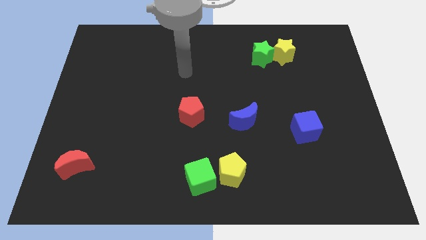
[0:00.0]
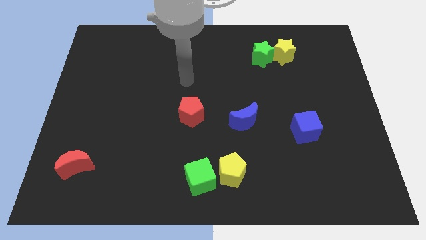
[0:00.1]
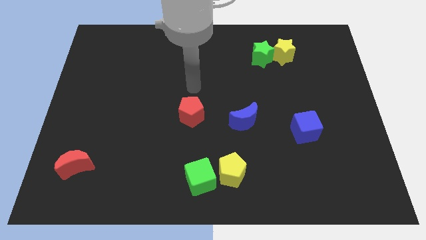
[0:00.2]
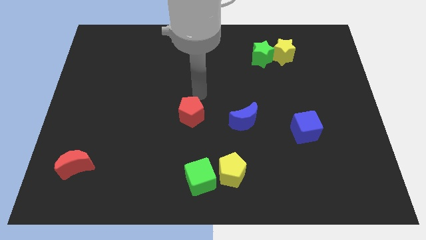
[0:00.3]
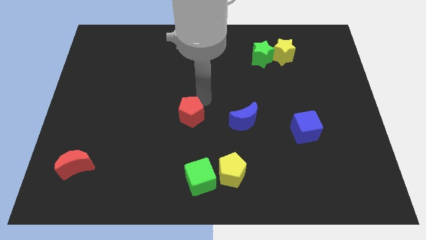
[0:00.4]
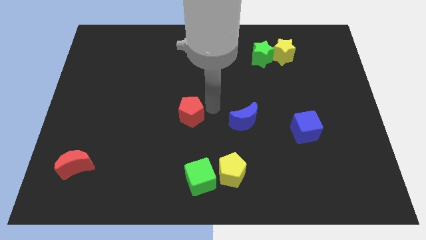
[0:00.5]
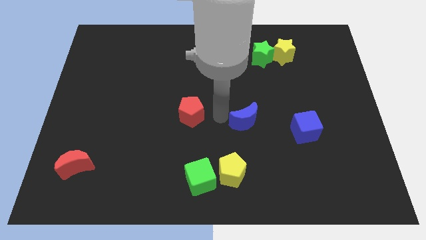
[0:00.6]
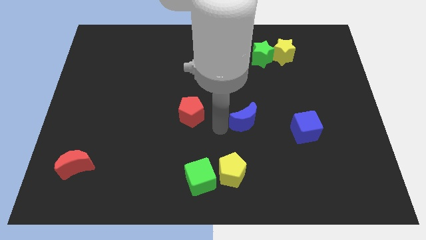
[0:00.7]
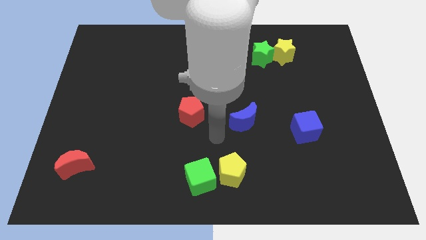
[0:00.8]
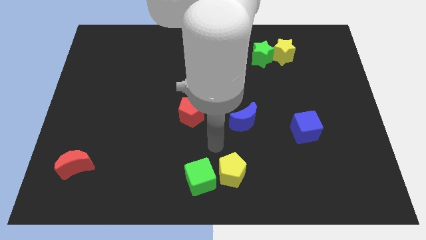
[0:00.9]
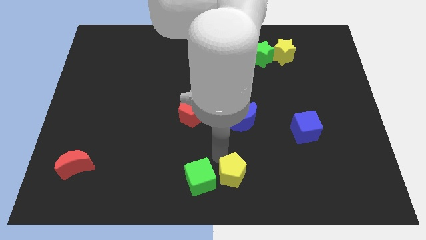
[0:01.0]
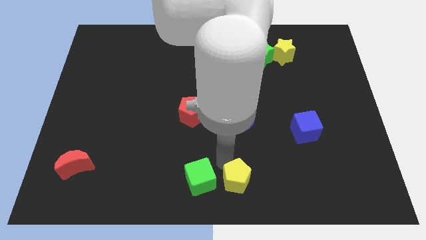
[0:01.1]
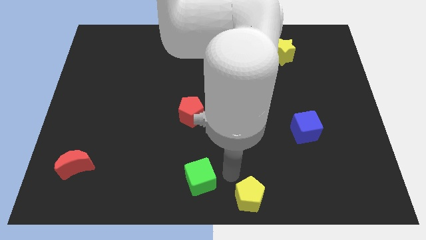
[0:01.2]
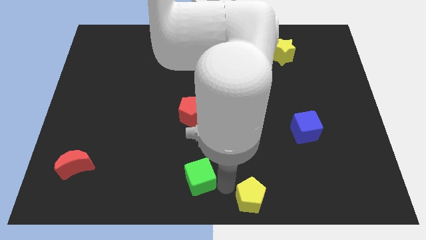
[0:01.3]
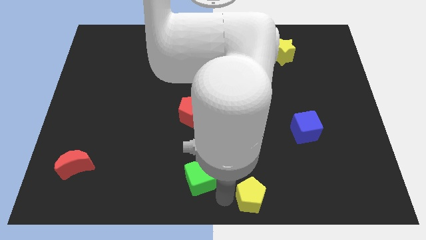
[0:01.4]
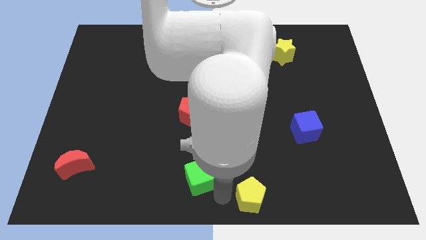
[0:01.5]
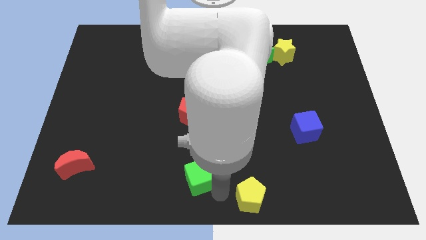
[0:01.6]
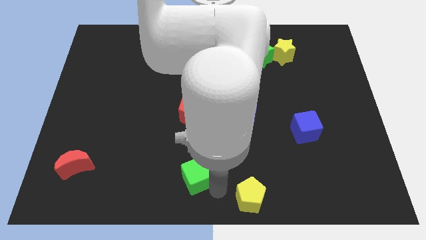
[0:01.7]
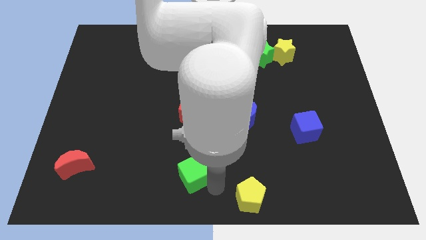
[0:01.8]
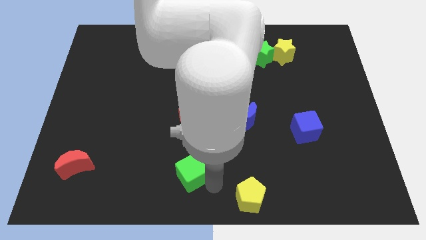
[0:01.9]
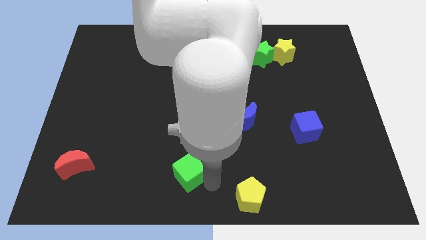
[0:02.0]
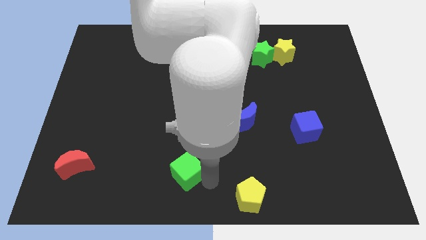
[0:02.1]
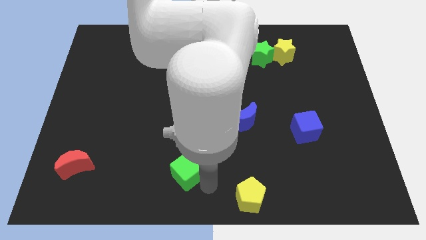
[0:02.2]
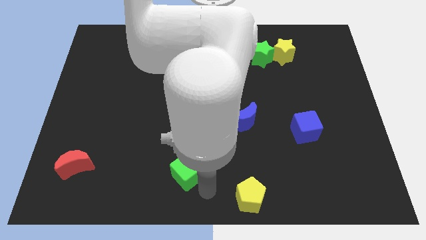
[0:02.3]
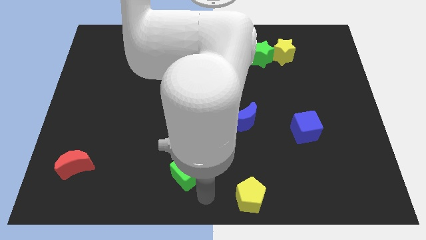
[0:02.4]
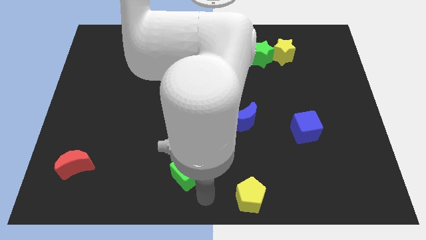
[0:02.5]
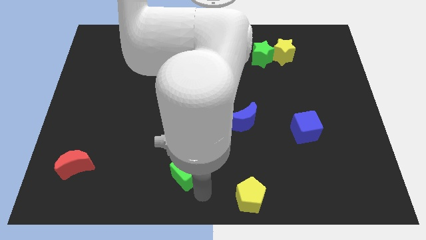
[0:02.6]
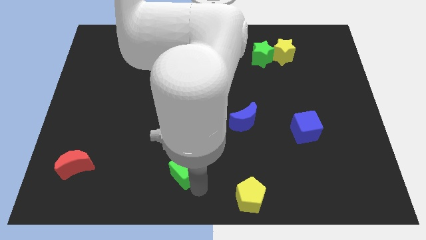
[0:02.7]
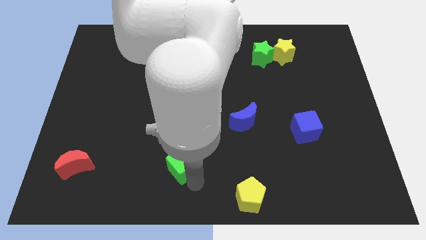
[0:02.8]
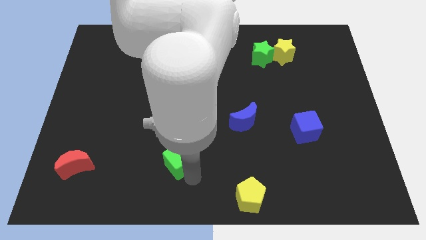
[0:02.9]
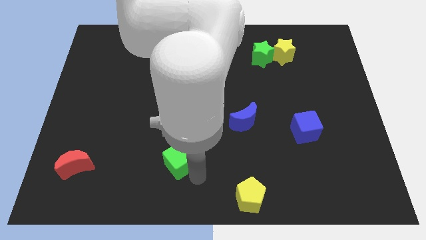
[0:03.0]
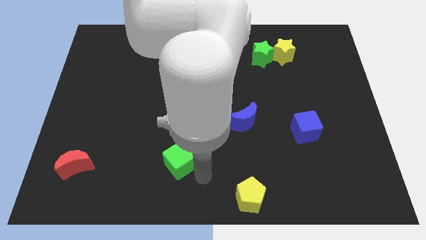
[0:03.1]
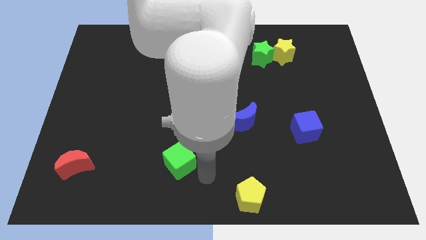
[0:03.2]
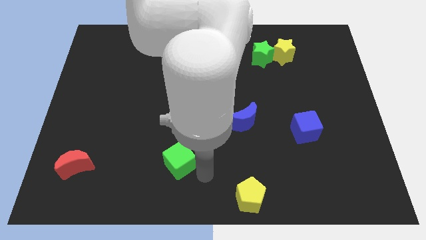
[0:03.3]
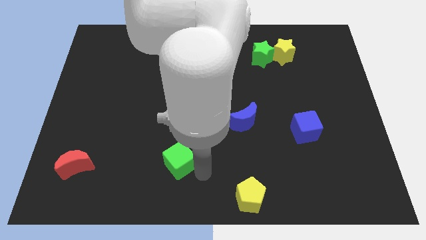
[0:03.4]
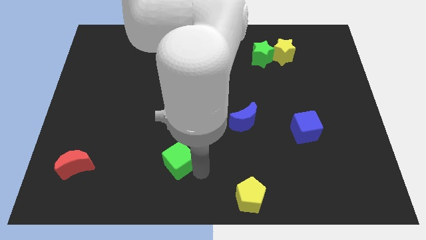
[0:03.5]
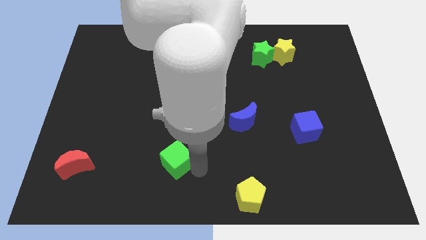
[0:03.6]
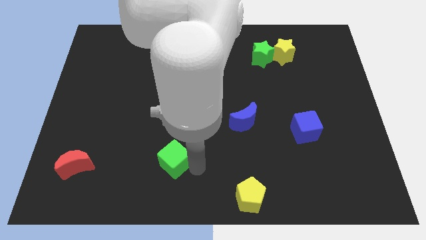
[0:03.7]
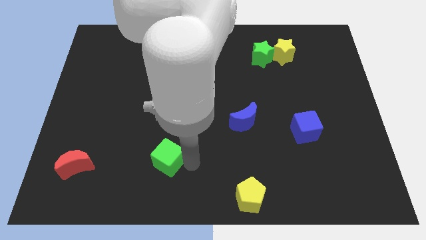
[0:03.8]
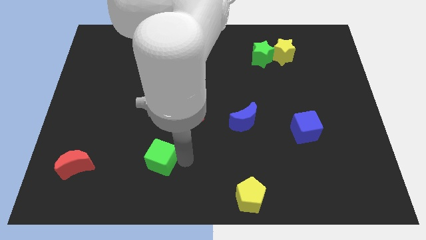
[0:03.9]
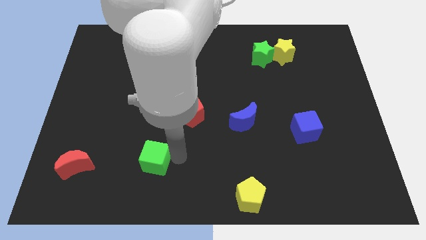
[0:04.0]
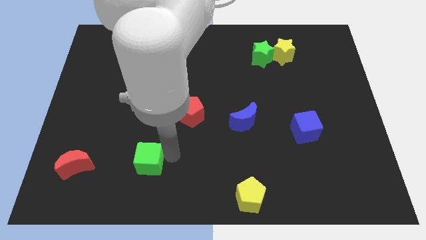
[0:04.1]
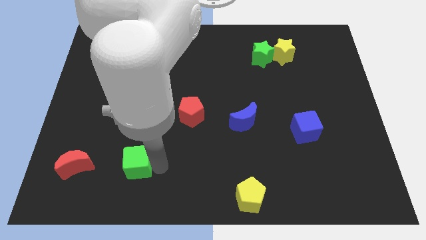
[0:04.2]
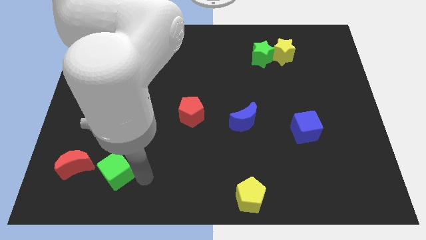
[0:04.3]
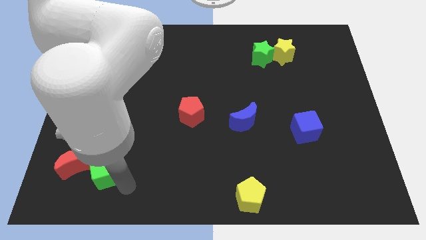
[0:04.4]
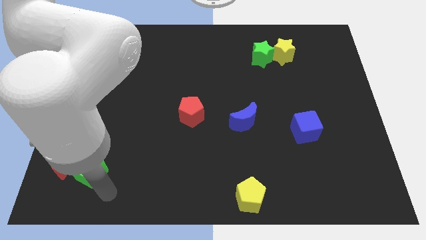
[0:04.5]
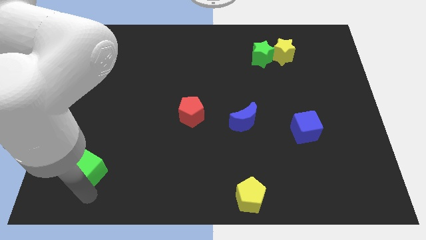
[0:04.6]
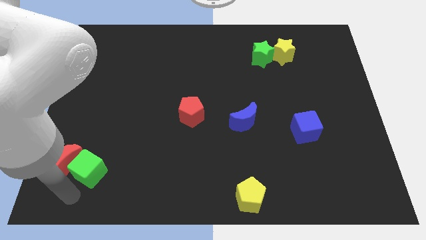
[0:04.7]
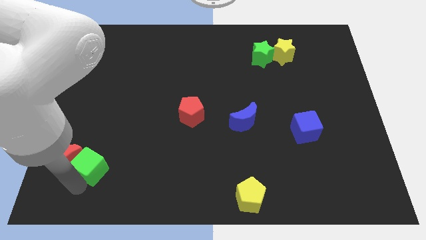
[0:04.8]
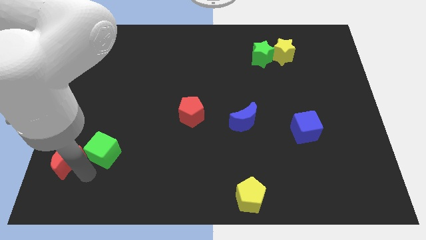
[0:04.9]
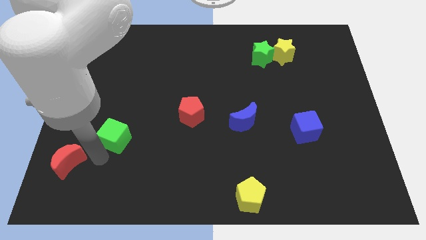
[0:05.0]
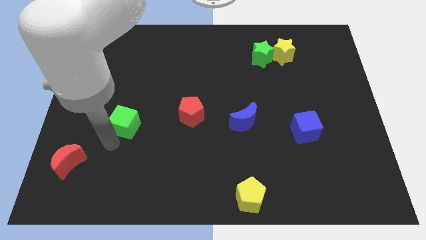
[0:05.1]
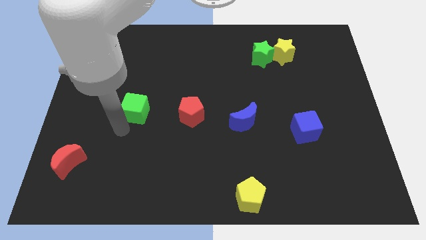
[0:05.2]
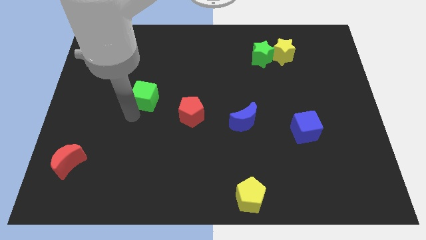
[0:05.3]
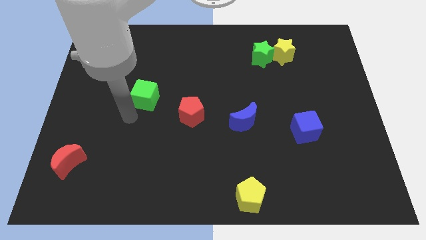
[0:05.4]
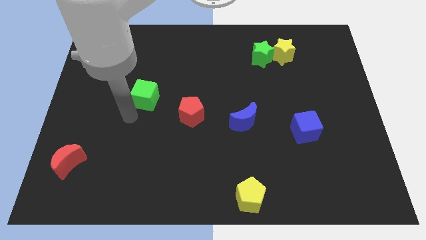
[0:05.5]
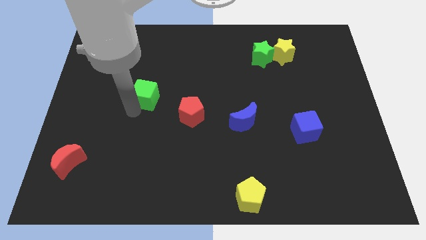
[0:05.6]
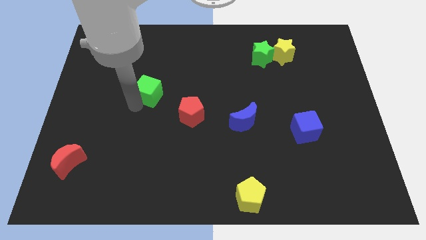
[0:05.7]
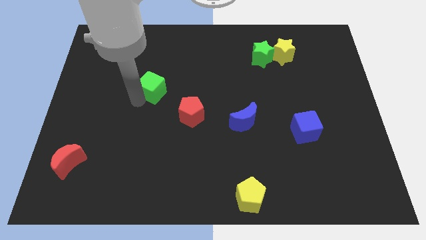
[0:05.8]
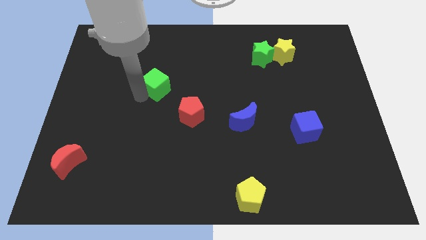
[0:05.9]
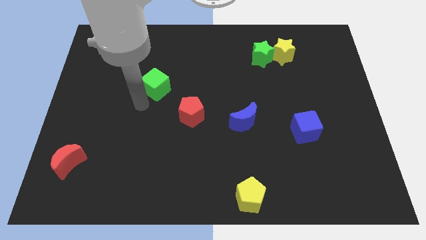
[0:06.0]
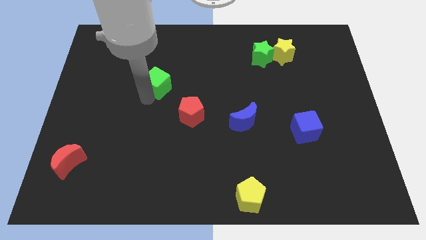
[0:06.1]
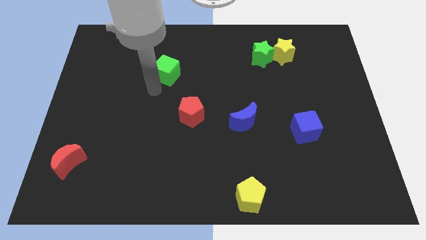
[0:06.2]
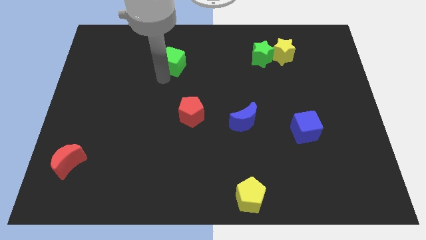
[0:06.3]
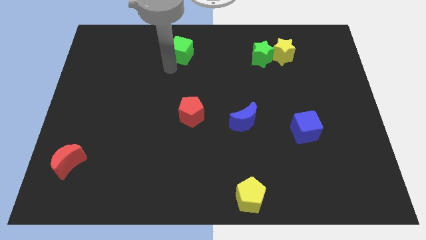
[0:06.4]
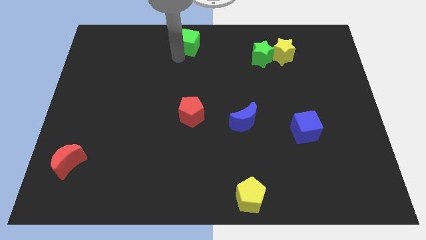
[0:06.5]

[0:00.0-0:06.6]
slide the green cube to the top side
